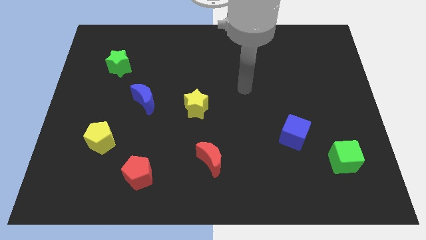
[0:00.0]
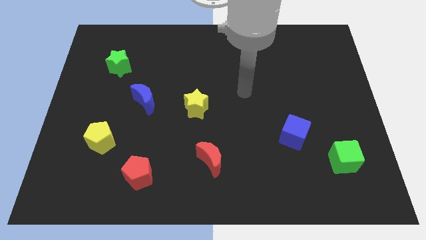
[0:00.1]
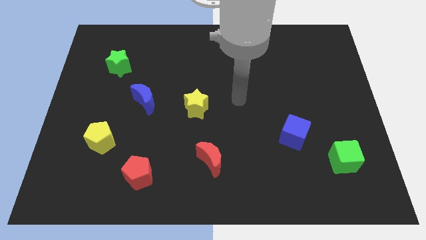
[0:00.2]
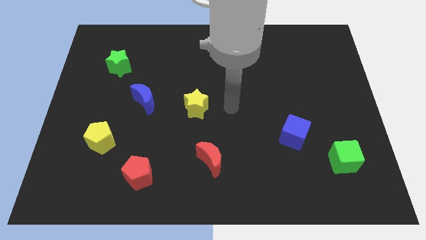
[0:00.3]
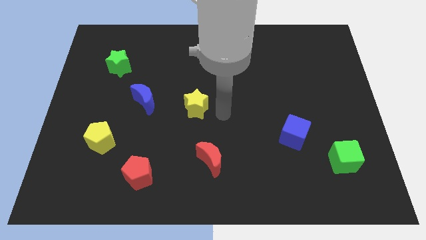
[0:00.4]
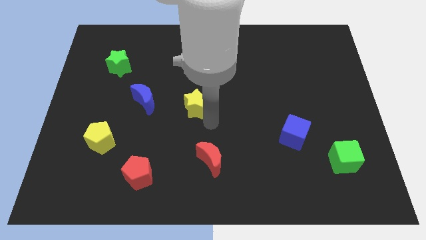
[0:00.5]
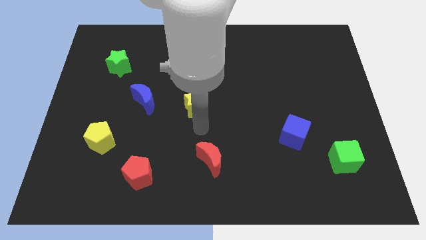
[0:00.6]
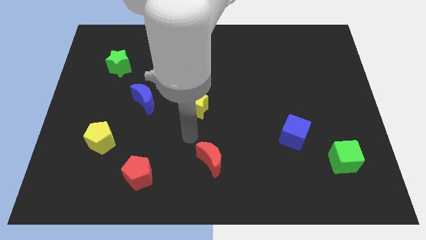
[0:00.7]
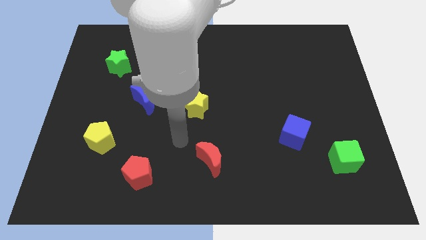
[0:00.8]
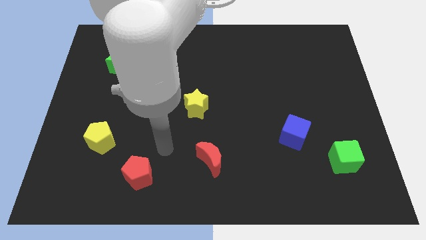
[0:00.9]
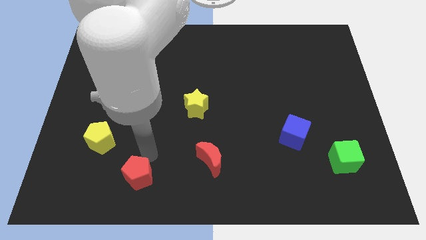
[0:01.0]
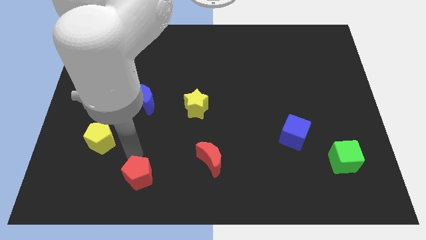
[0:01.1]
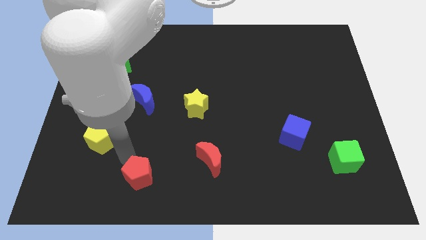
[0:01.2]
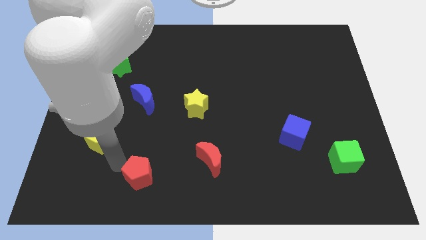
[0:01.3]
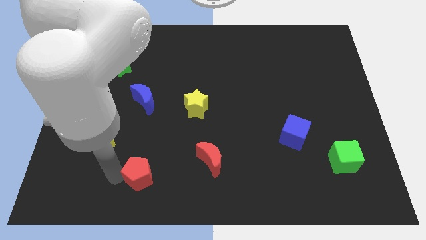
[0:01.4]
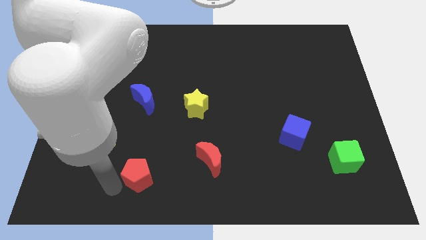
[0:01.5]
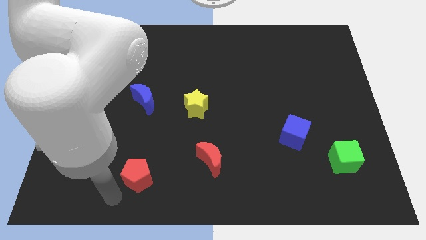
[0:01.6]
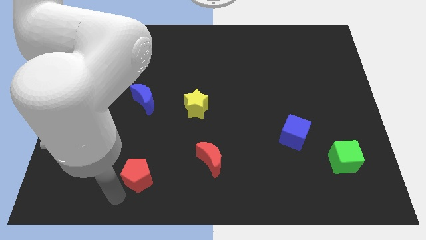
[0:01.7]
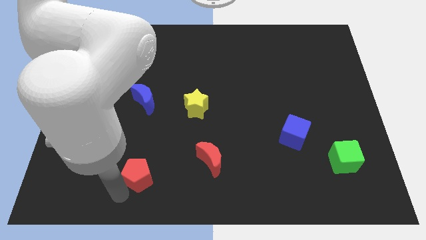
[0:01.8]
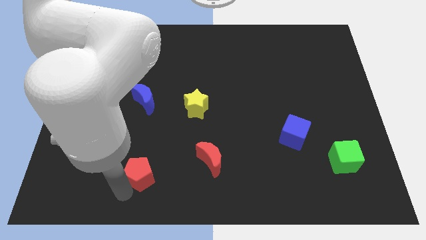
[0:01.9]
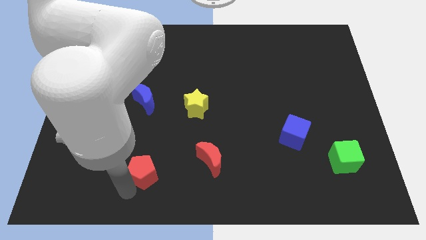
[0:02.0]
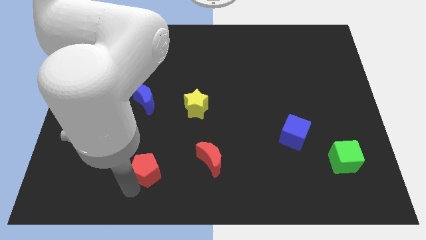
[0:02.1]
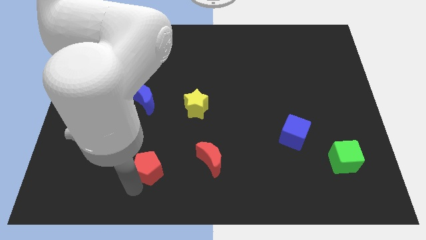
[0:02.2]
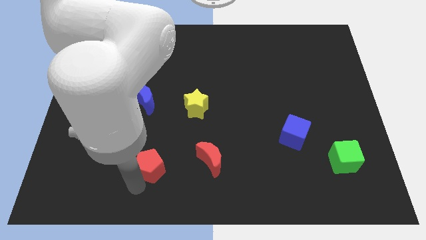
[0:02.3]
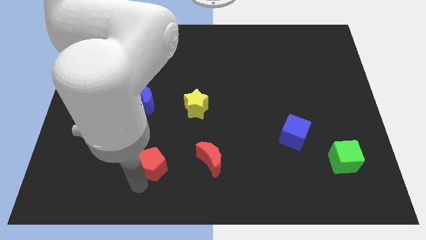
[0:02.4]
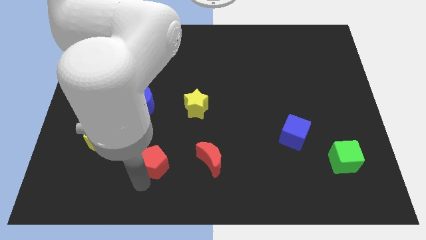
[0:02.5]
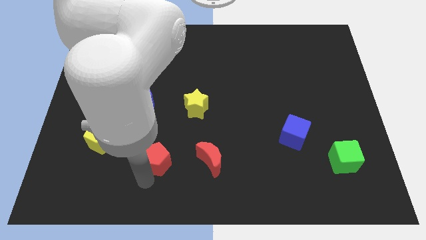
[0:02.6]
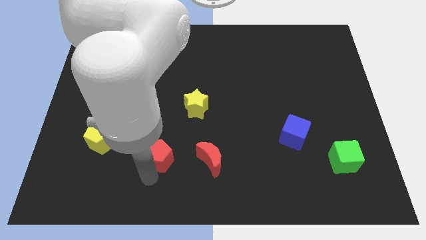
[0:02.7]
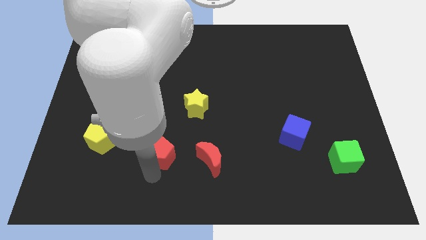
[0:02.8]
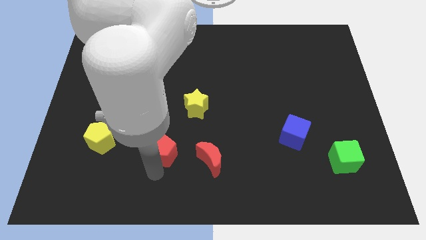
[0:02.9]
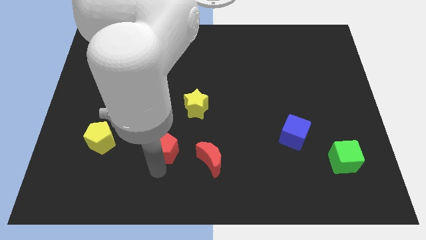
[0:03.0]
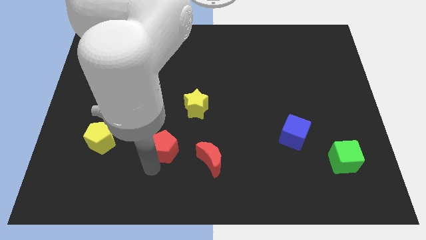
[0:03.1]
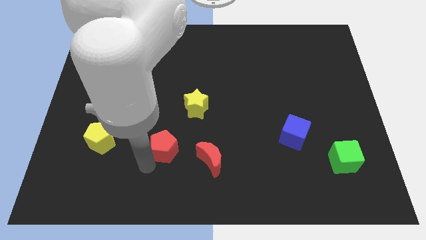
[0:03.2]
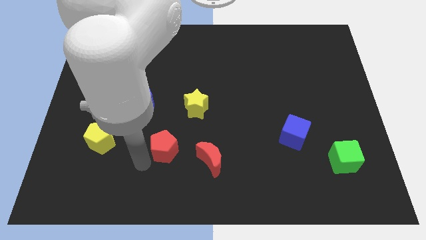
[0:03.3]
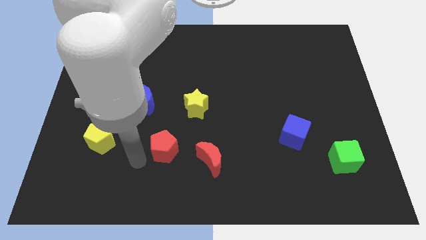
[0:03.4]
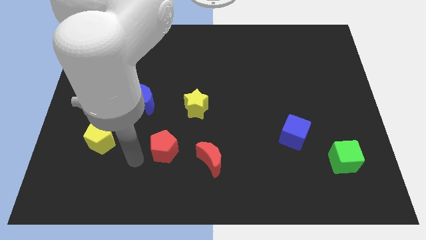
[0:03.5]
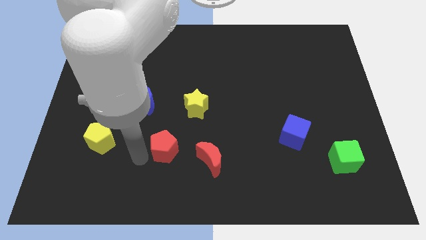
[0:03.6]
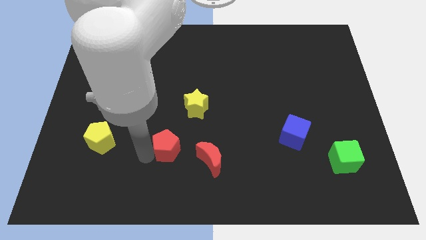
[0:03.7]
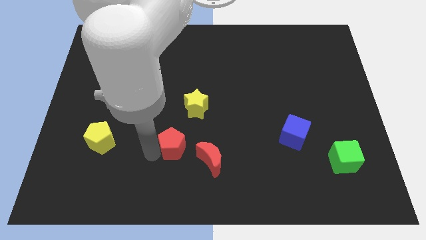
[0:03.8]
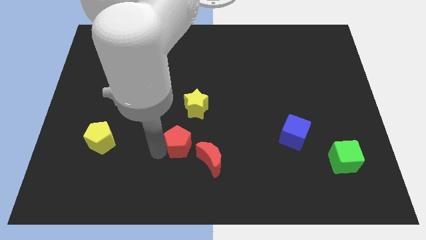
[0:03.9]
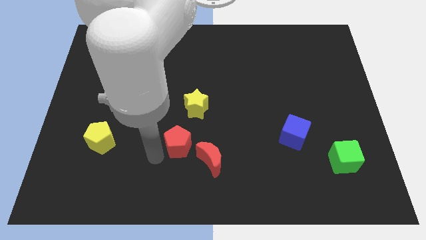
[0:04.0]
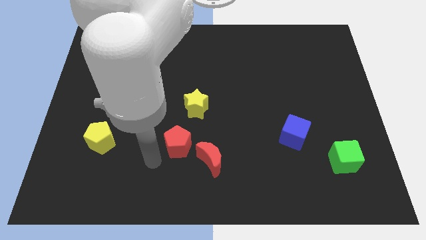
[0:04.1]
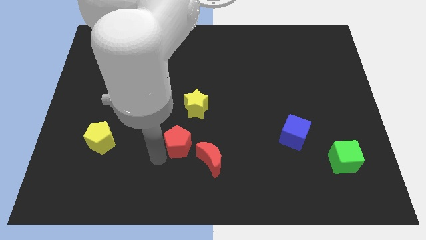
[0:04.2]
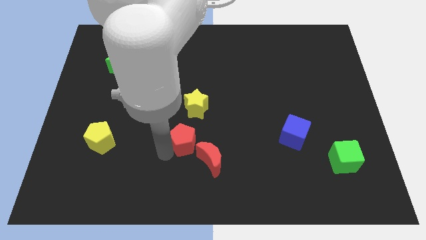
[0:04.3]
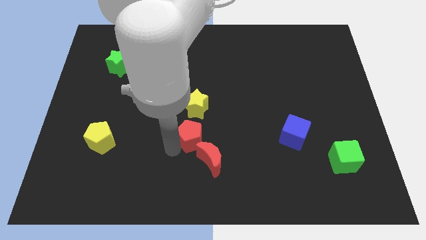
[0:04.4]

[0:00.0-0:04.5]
slide the red pentagon to the top of the red moon

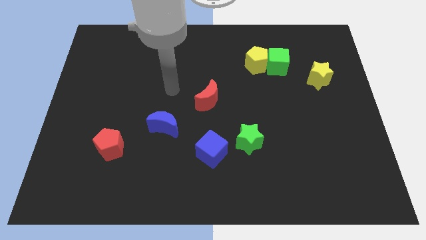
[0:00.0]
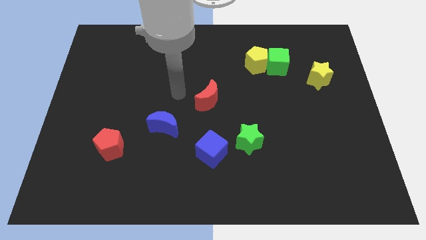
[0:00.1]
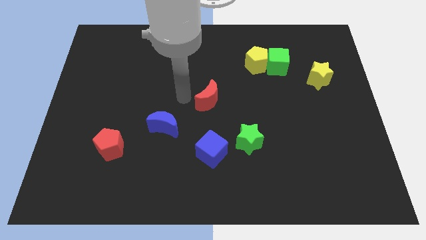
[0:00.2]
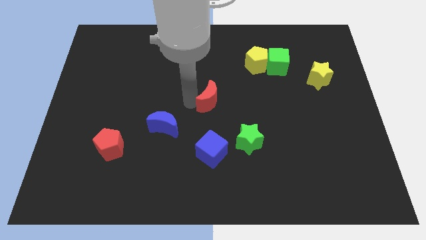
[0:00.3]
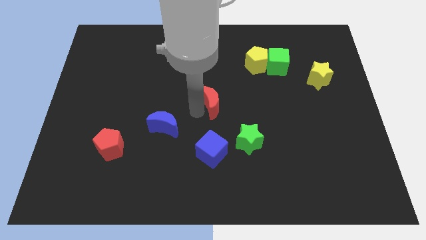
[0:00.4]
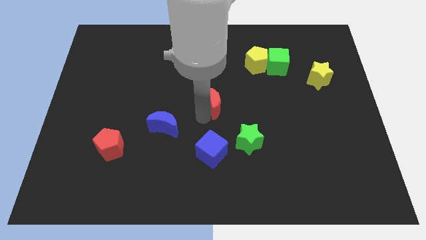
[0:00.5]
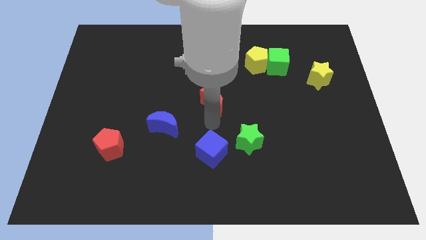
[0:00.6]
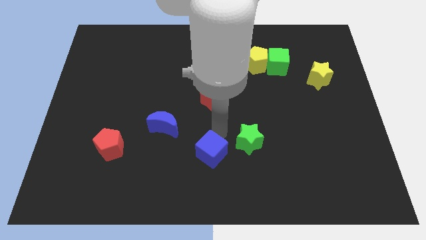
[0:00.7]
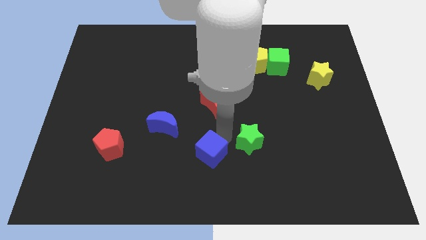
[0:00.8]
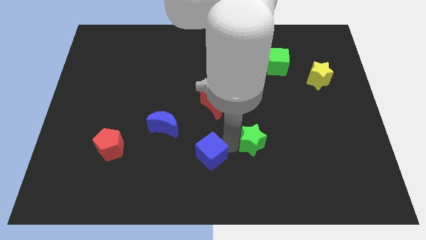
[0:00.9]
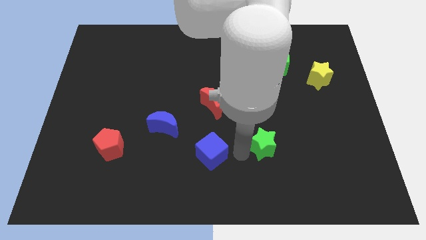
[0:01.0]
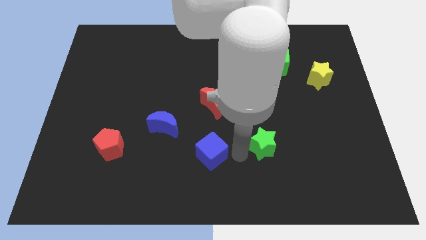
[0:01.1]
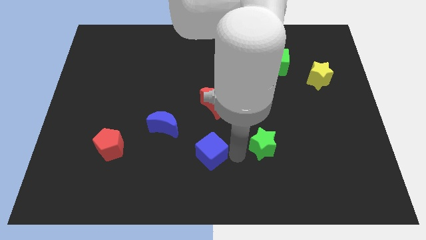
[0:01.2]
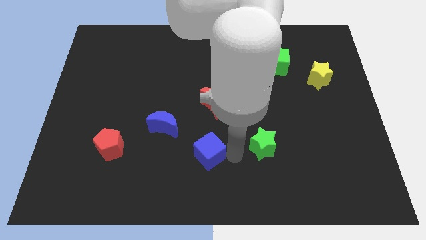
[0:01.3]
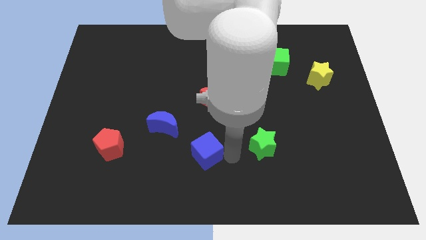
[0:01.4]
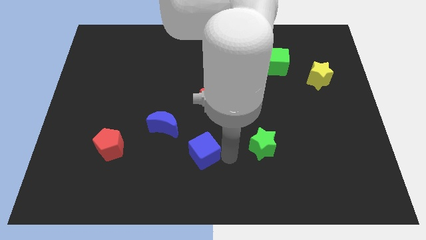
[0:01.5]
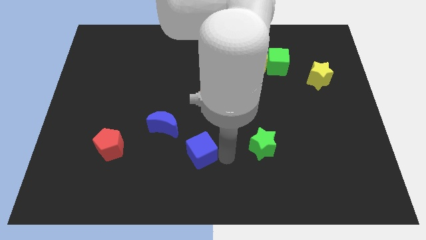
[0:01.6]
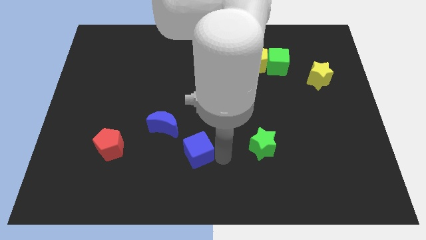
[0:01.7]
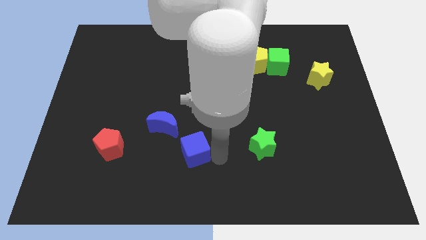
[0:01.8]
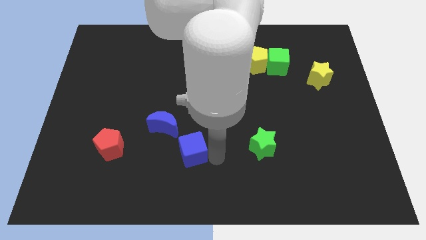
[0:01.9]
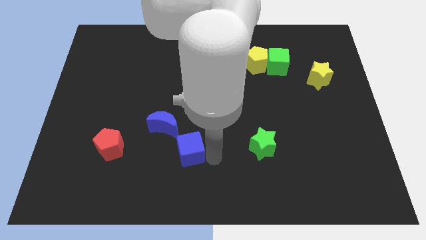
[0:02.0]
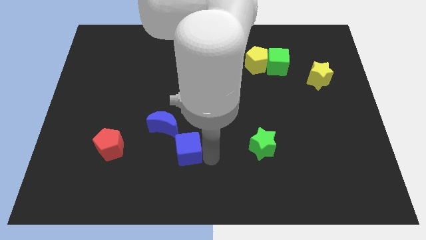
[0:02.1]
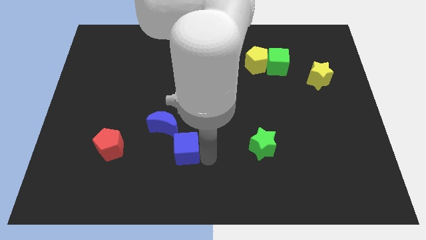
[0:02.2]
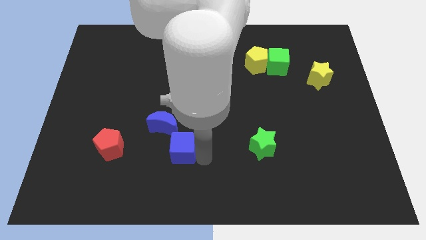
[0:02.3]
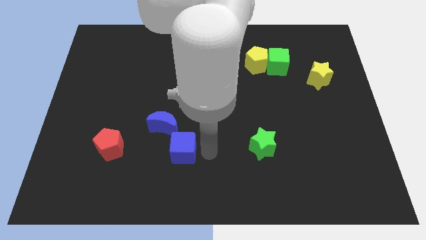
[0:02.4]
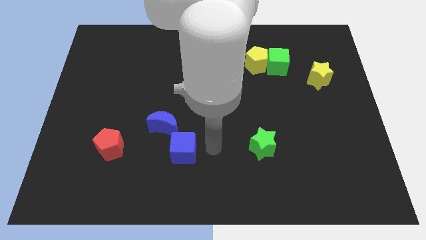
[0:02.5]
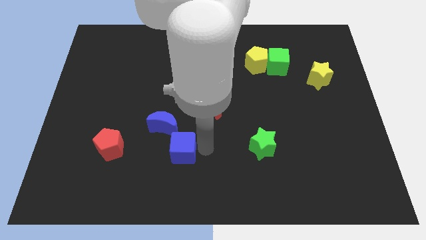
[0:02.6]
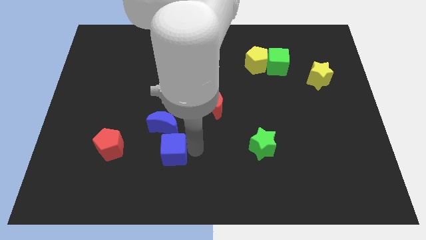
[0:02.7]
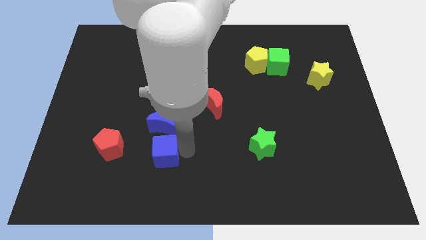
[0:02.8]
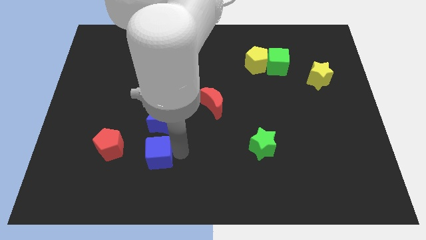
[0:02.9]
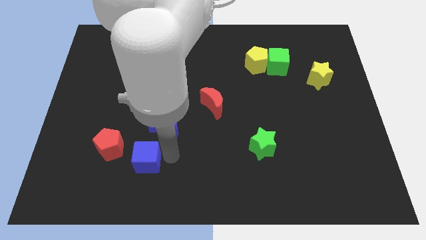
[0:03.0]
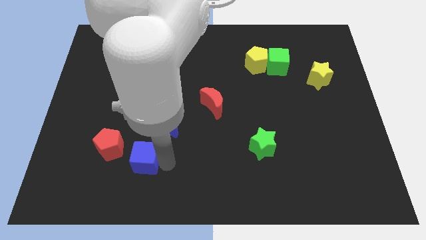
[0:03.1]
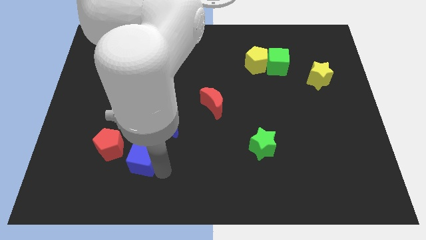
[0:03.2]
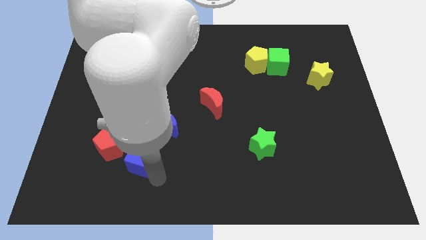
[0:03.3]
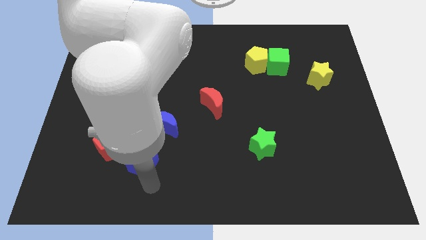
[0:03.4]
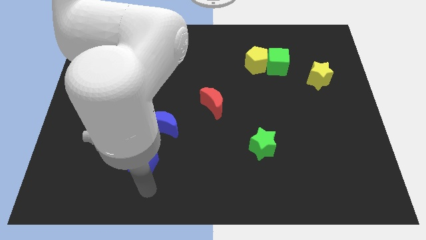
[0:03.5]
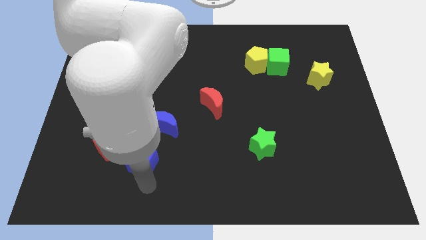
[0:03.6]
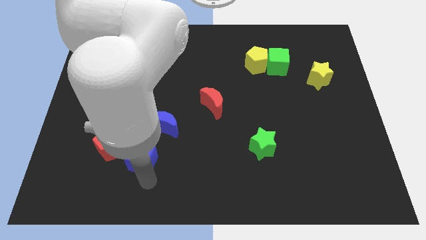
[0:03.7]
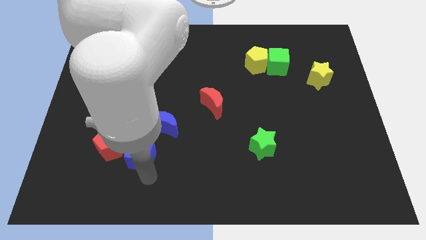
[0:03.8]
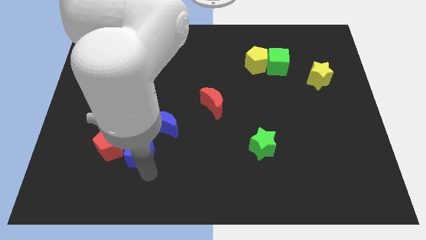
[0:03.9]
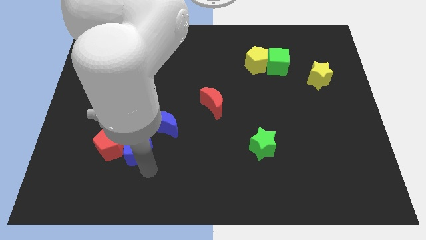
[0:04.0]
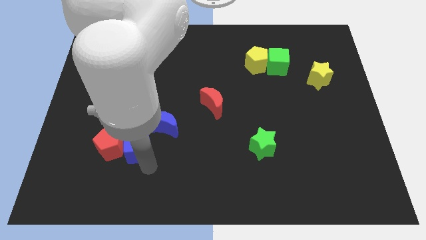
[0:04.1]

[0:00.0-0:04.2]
move the blue cube to the top right of the red pentagon
